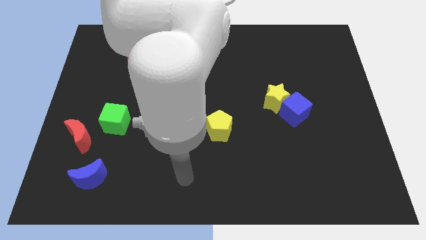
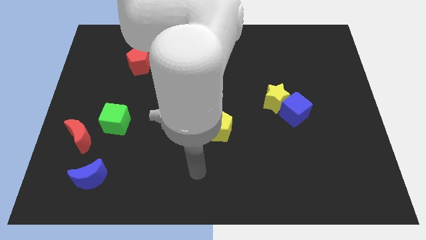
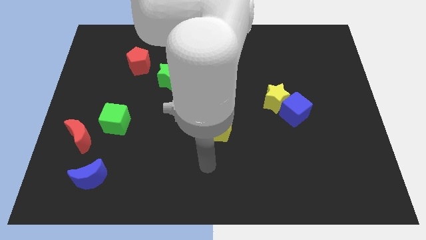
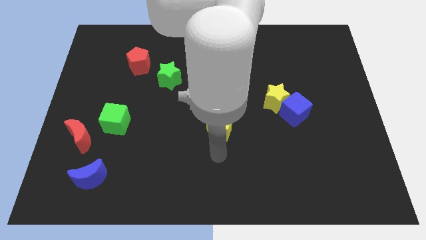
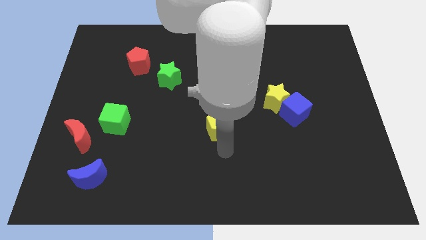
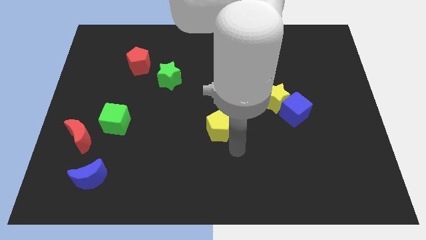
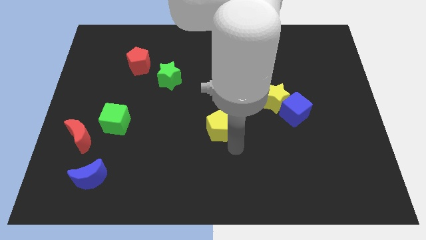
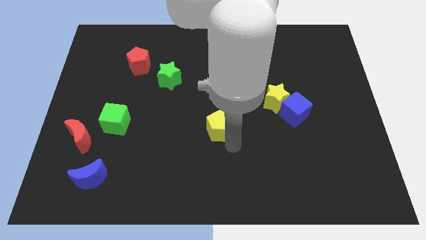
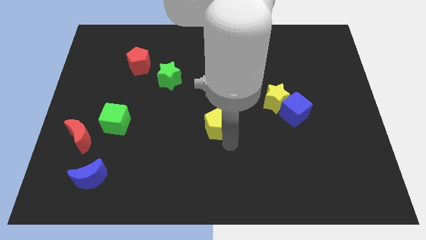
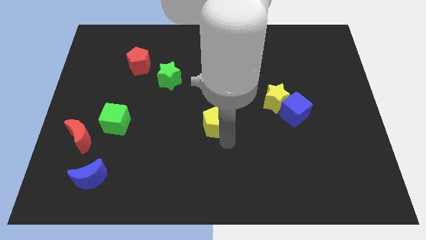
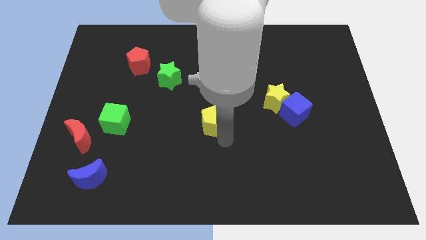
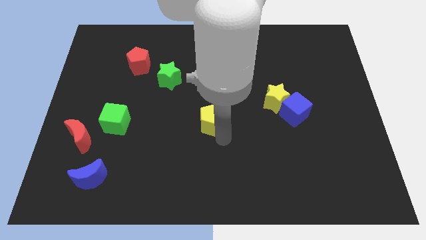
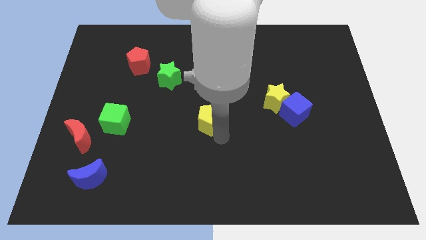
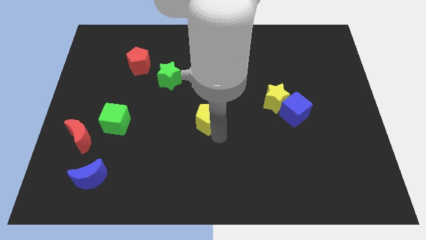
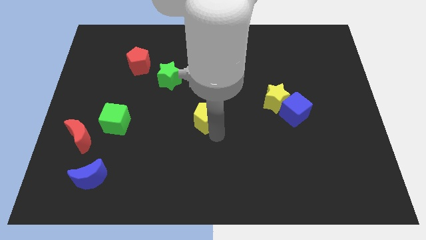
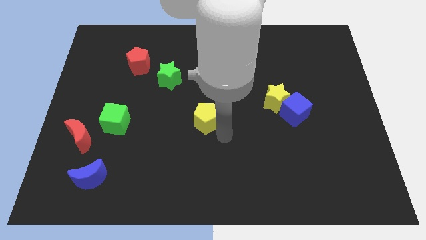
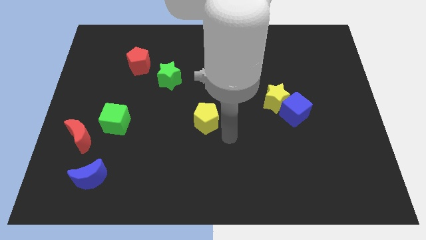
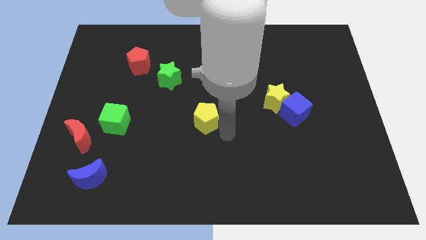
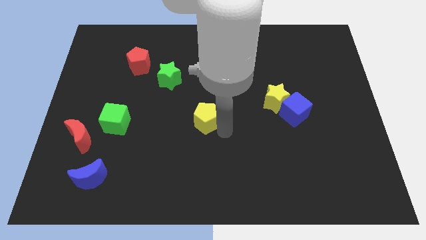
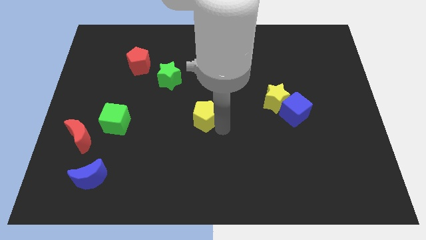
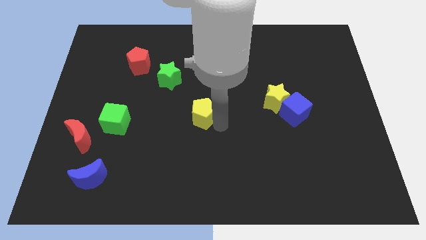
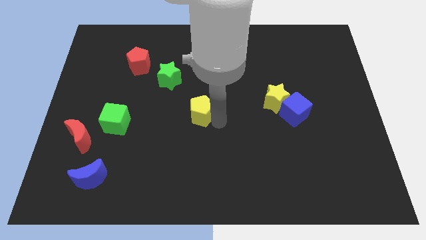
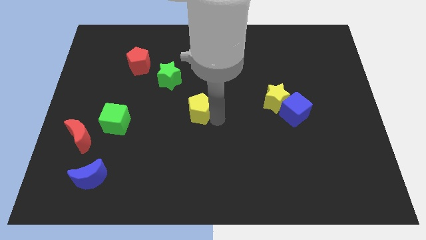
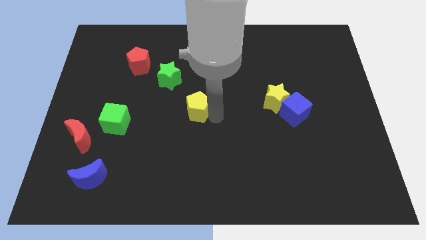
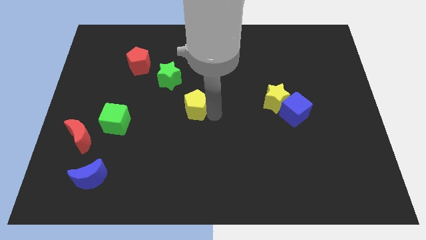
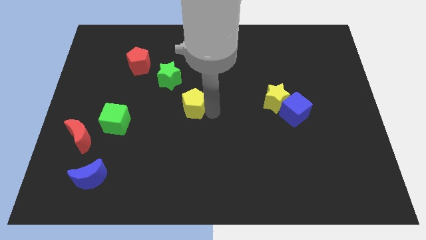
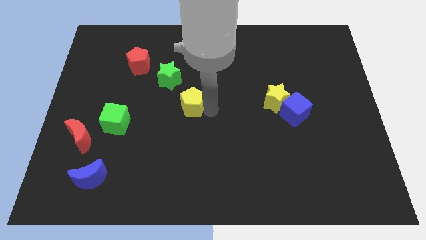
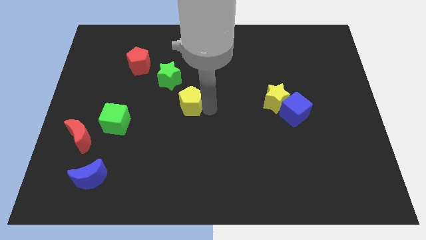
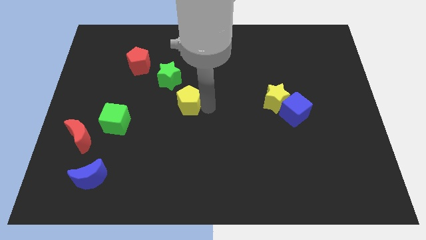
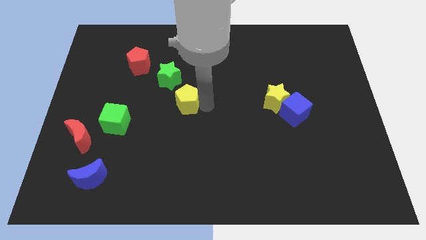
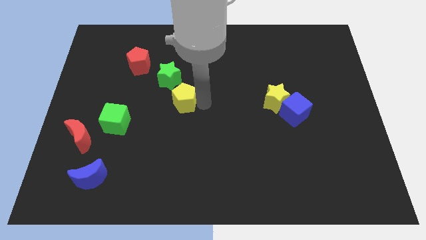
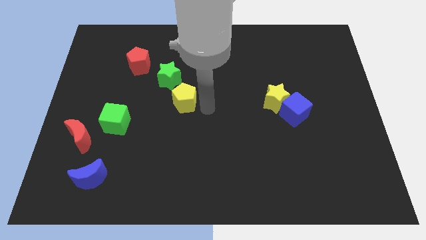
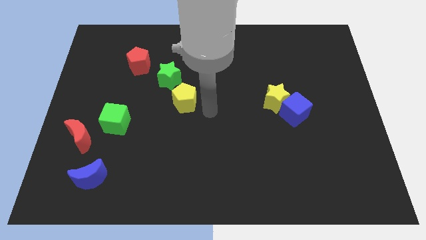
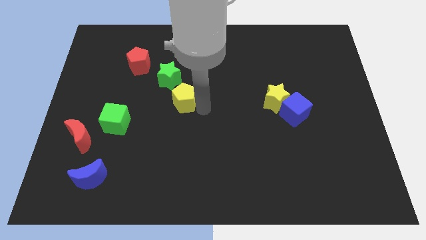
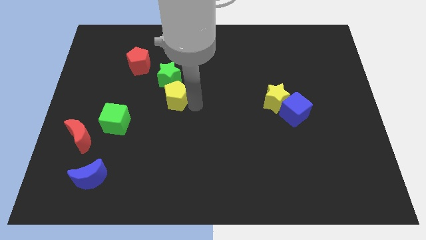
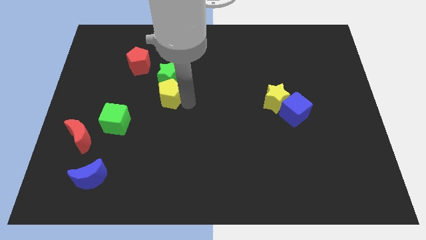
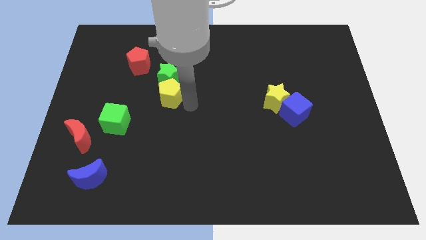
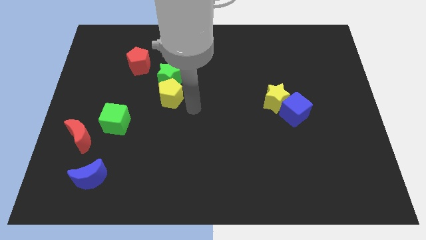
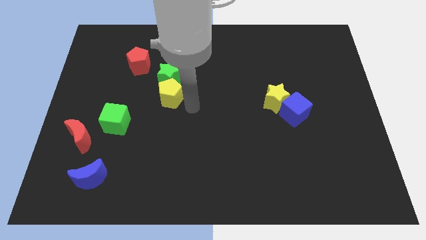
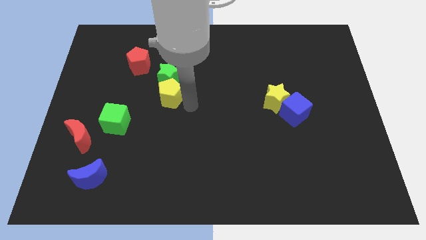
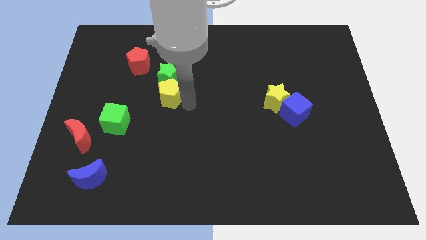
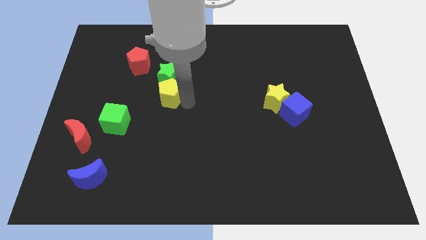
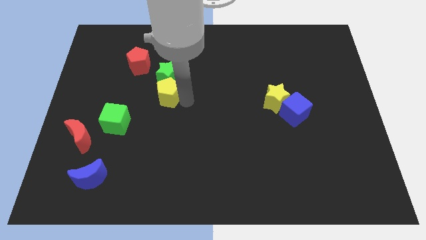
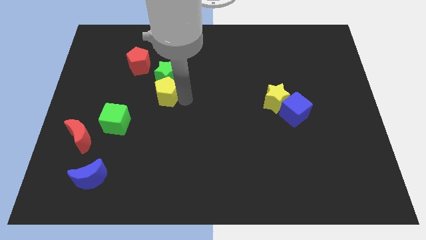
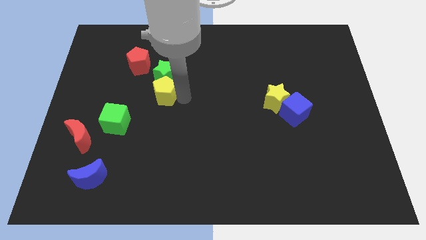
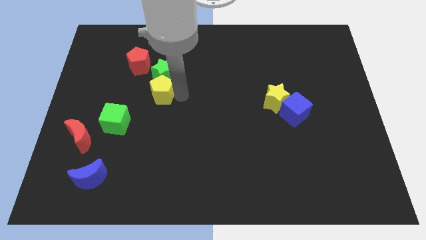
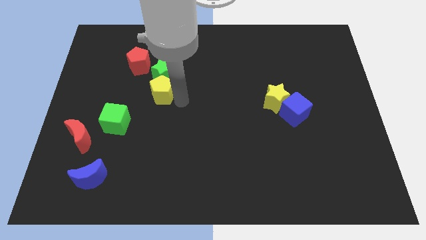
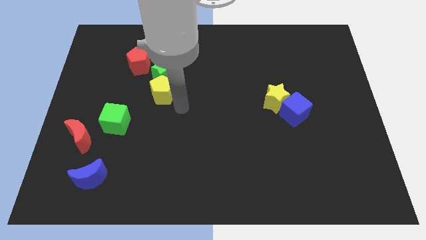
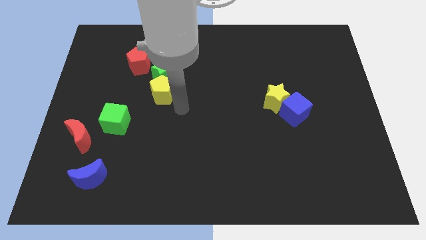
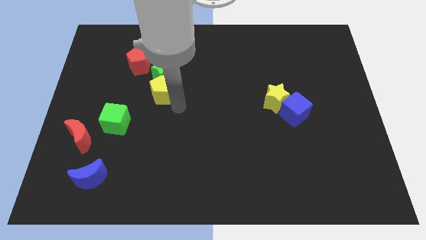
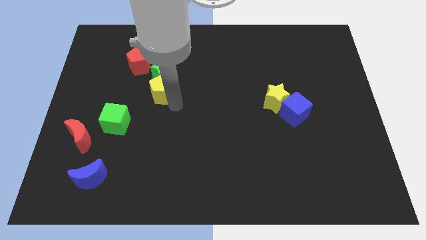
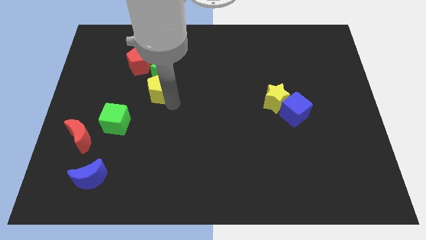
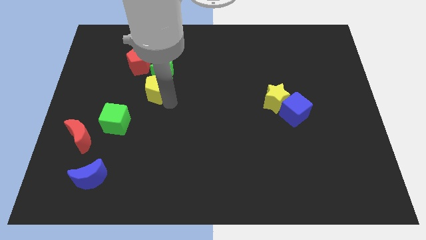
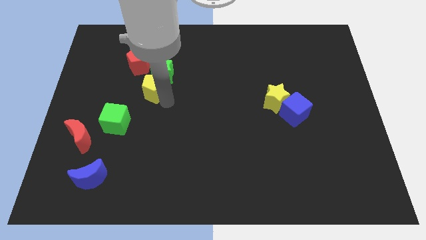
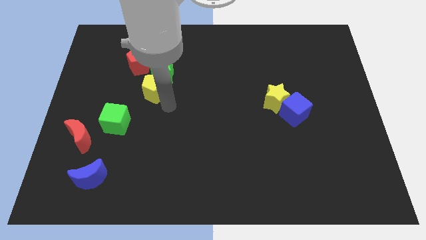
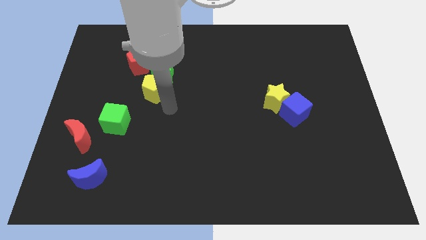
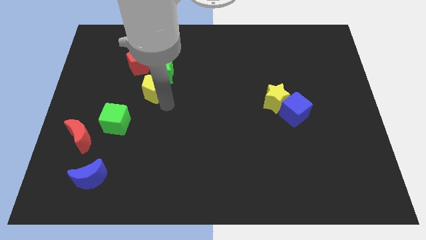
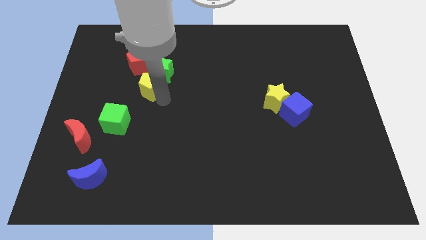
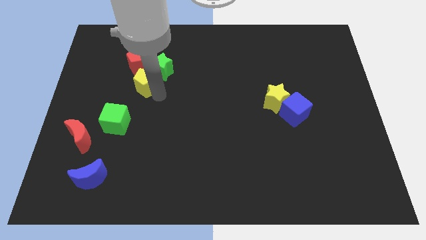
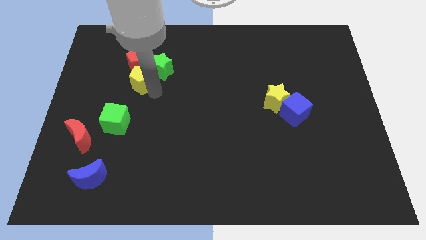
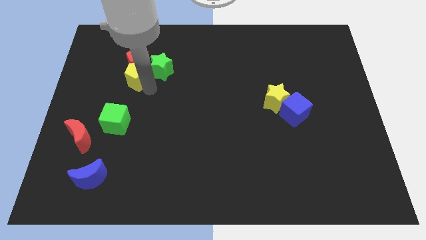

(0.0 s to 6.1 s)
put the yellow pentagon to the red pentagon

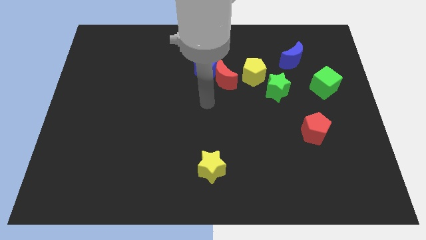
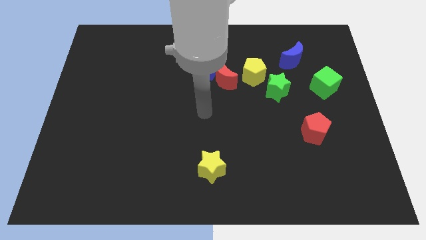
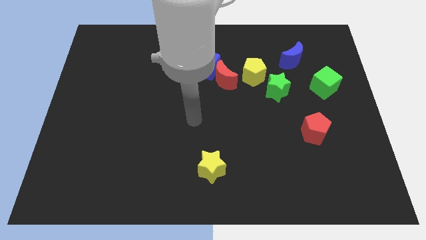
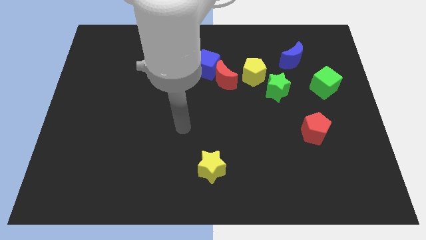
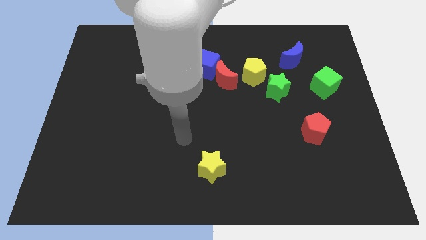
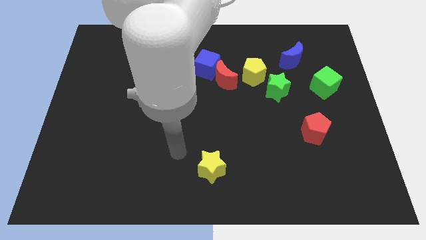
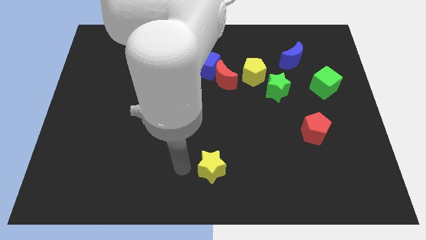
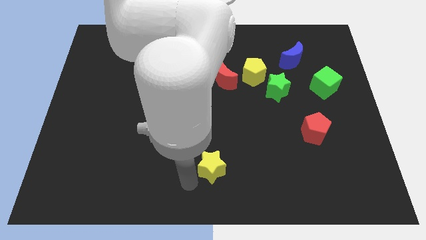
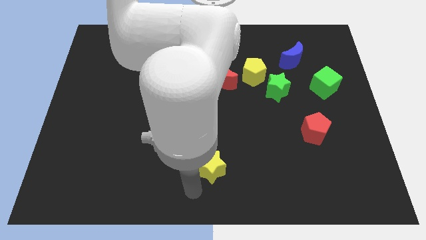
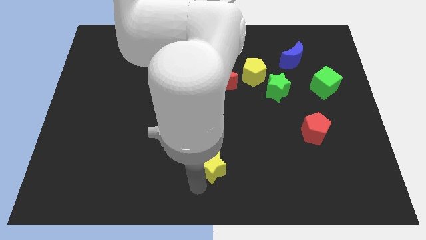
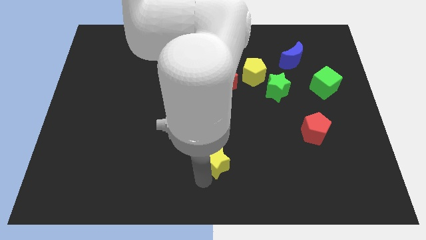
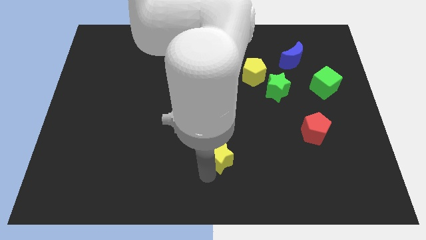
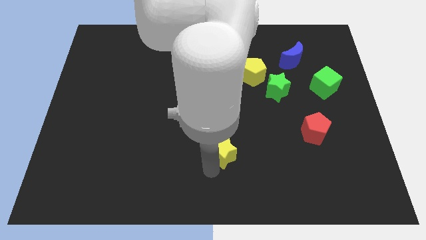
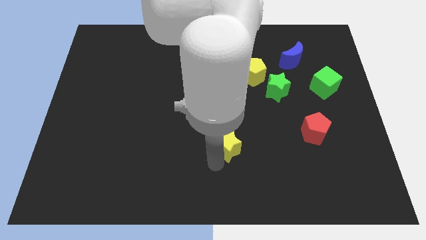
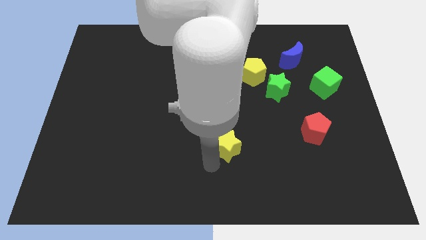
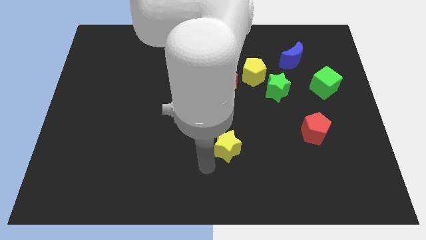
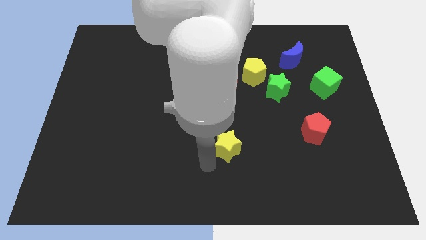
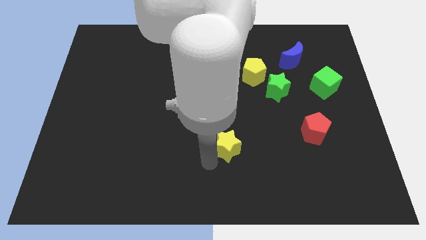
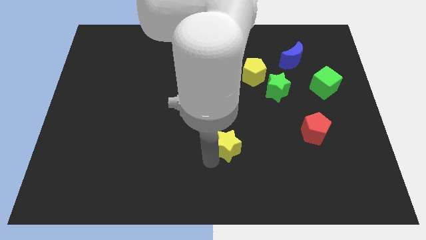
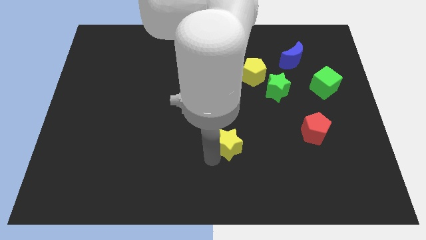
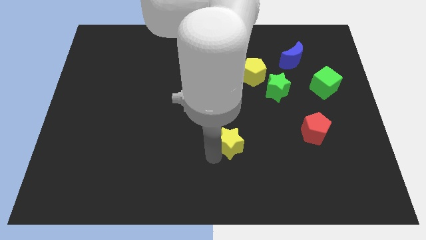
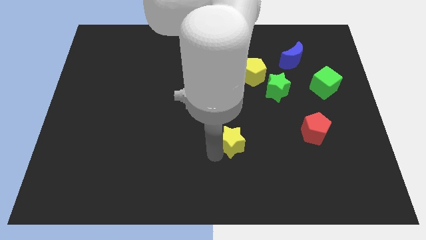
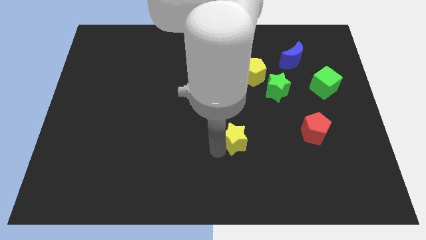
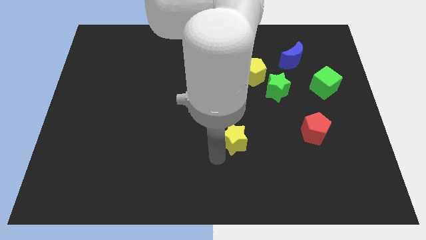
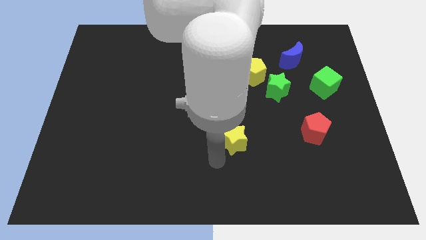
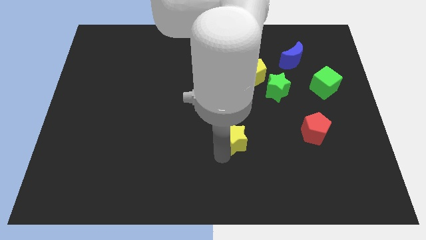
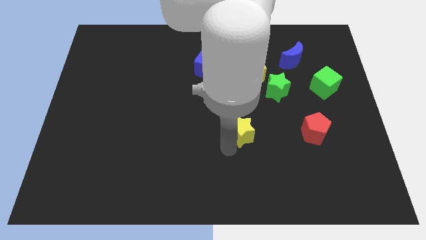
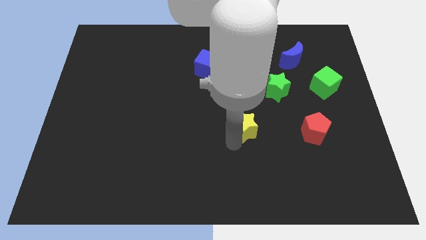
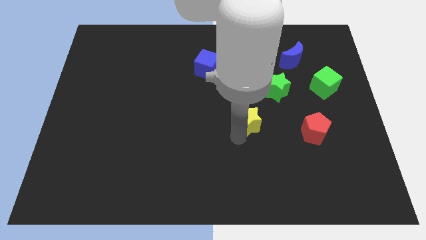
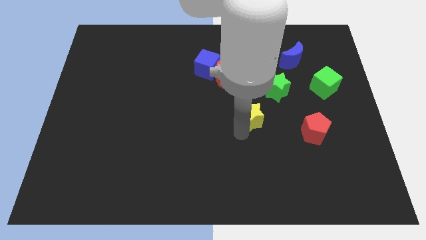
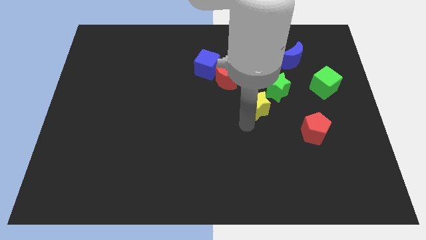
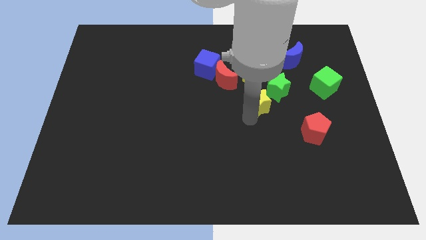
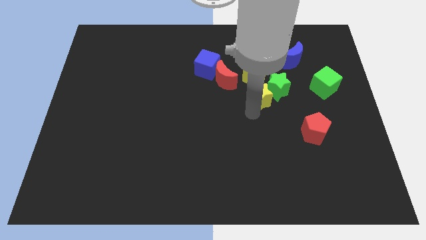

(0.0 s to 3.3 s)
put the yellow star towards the green star
